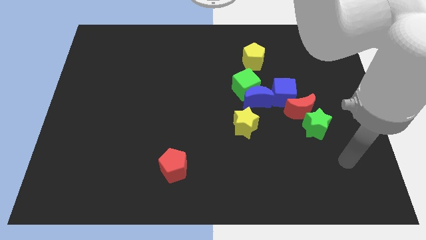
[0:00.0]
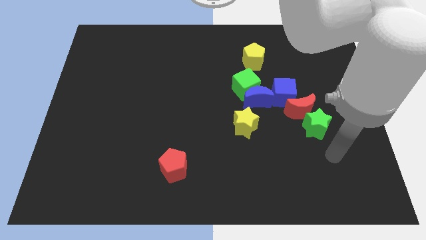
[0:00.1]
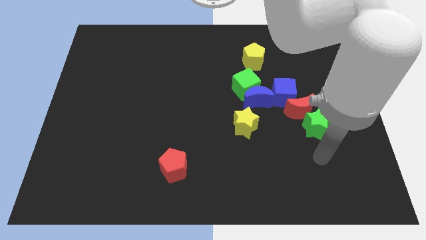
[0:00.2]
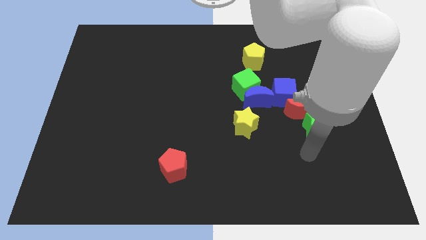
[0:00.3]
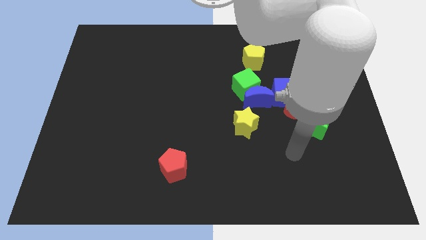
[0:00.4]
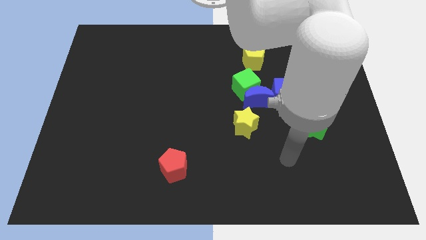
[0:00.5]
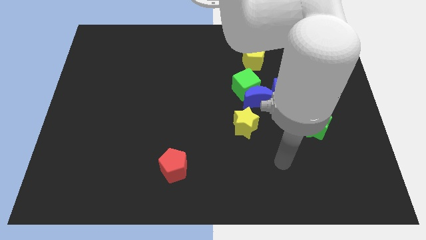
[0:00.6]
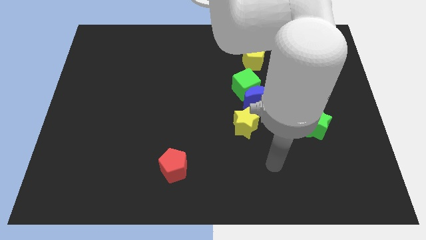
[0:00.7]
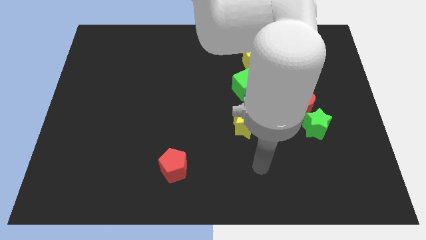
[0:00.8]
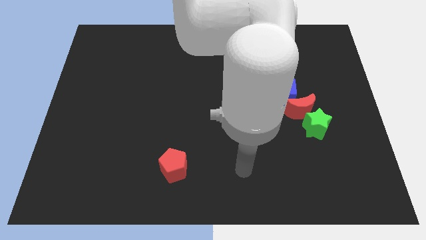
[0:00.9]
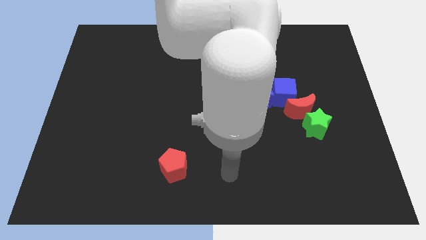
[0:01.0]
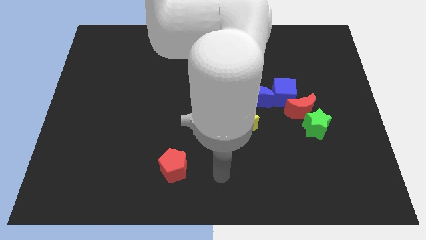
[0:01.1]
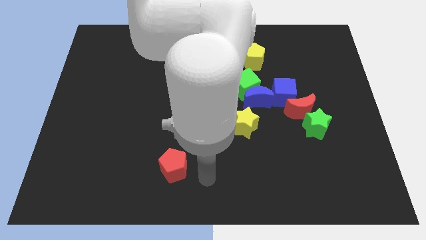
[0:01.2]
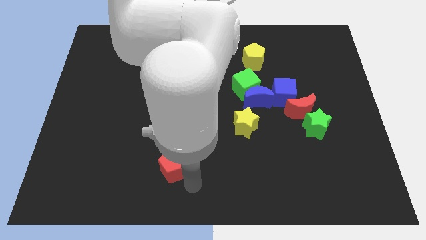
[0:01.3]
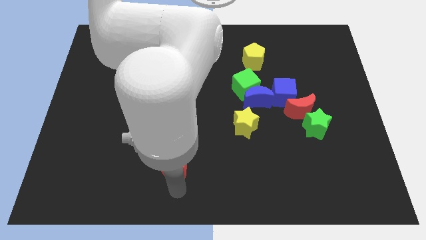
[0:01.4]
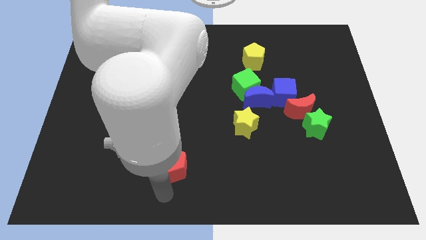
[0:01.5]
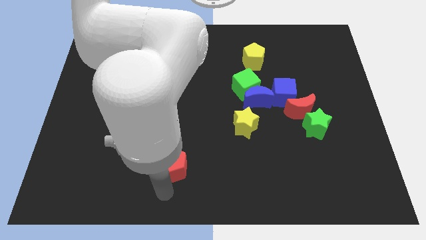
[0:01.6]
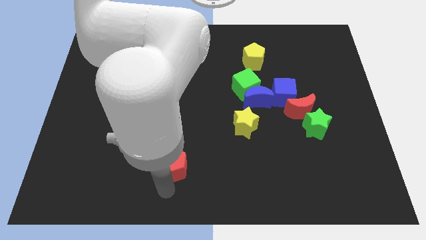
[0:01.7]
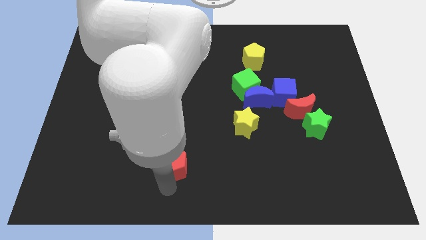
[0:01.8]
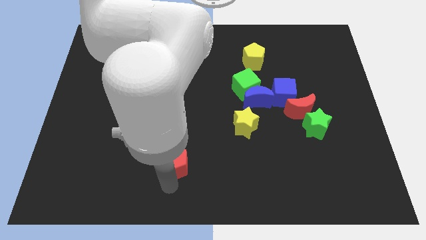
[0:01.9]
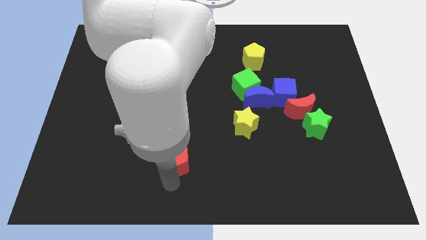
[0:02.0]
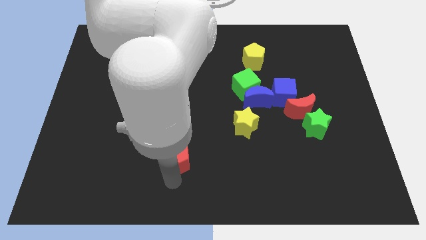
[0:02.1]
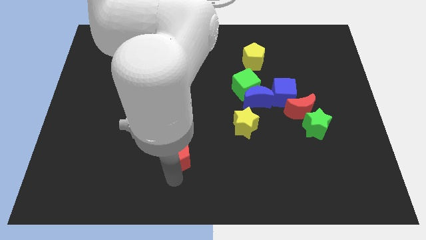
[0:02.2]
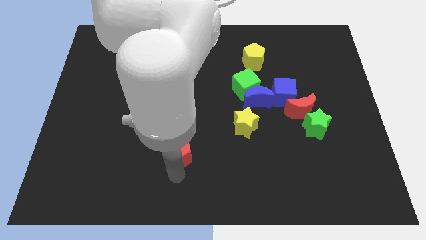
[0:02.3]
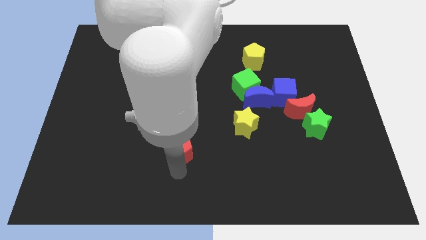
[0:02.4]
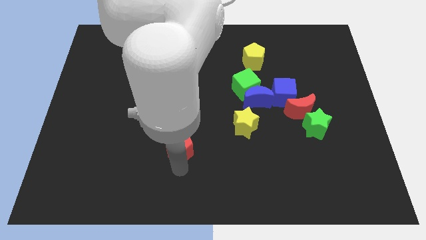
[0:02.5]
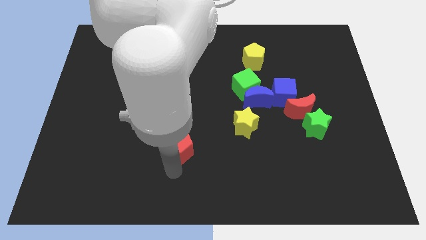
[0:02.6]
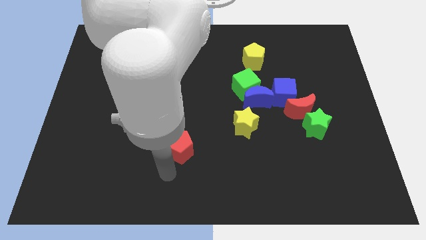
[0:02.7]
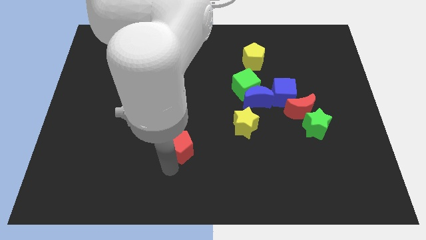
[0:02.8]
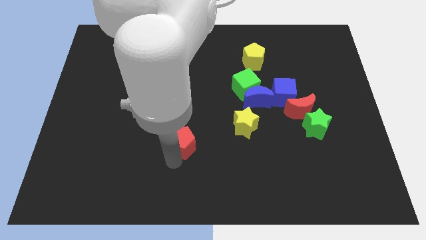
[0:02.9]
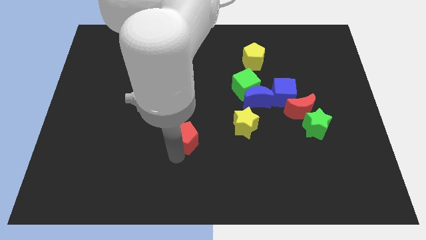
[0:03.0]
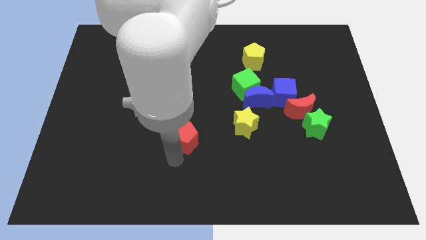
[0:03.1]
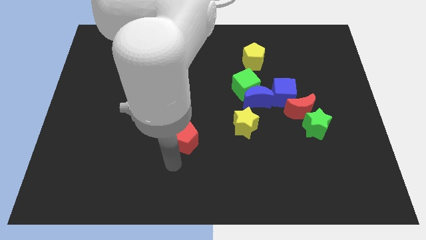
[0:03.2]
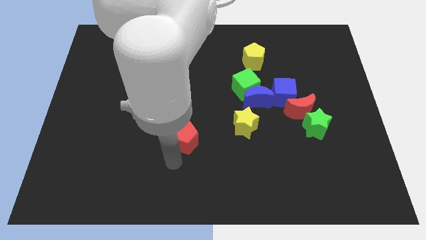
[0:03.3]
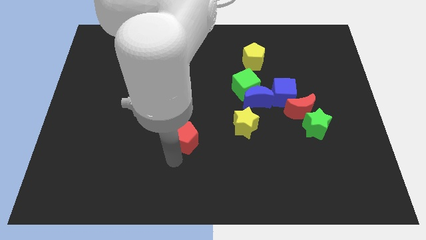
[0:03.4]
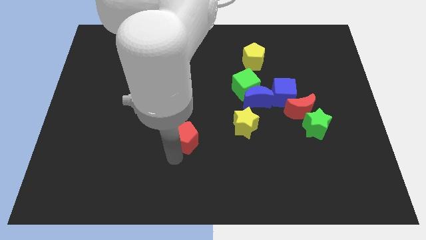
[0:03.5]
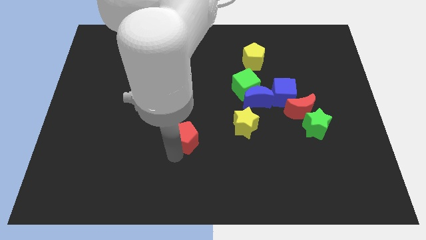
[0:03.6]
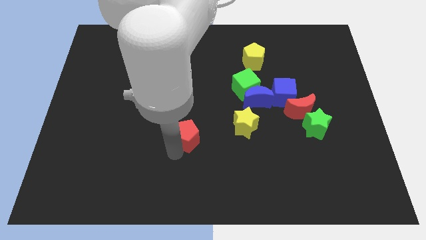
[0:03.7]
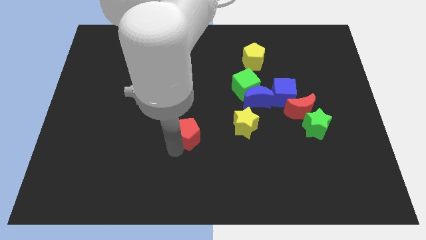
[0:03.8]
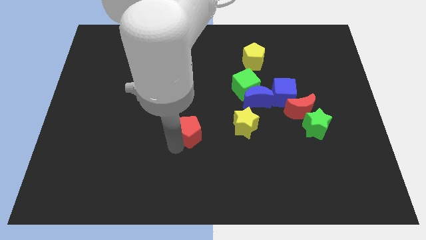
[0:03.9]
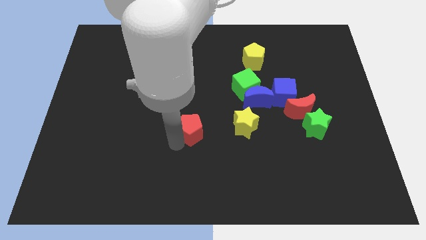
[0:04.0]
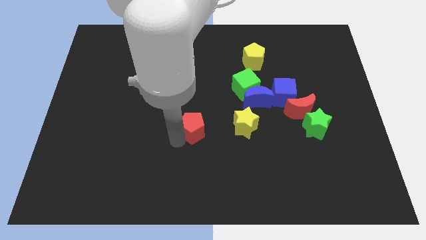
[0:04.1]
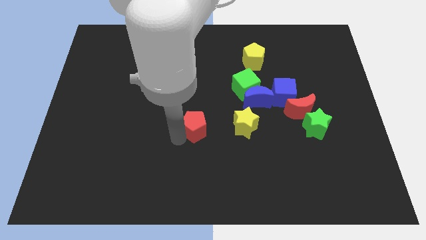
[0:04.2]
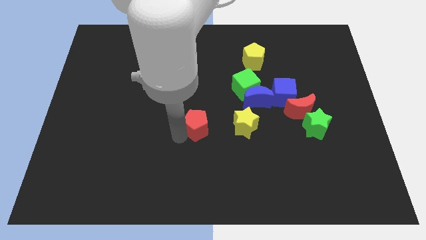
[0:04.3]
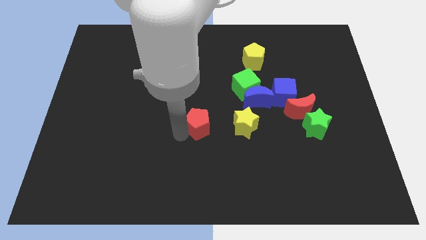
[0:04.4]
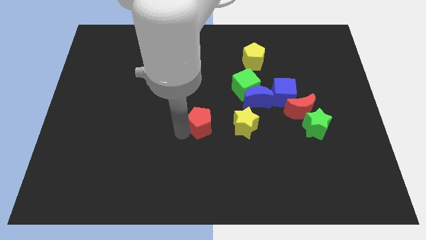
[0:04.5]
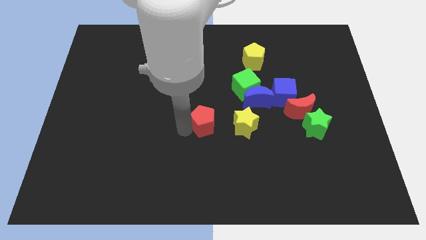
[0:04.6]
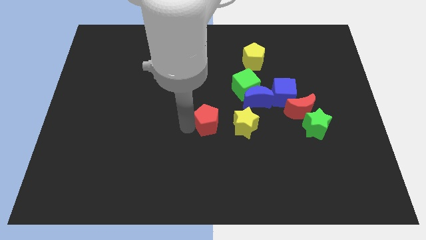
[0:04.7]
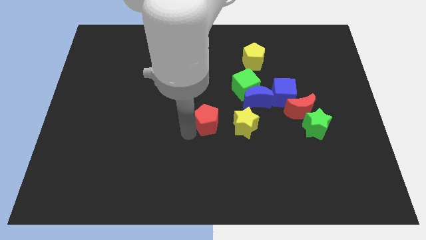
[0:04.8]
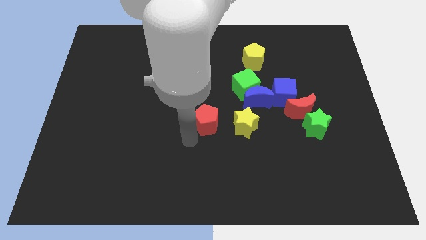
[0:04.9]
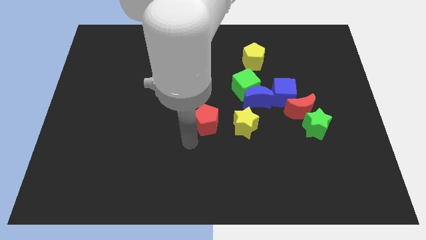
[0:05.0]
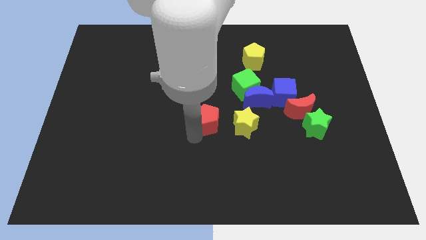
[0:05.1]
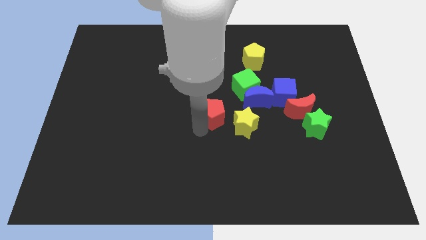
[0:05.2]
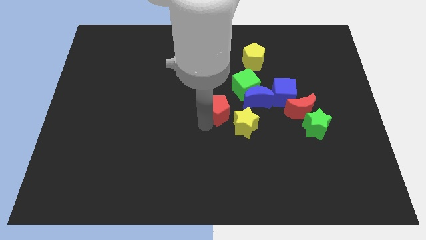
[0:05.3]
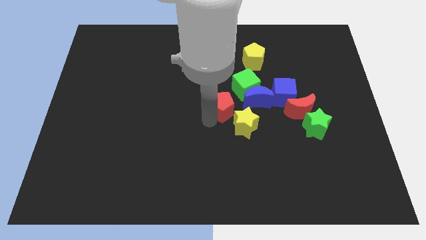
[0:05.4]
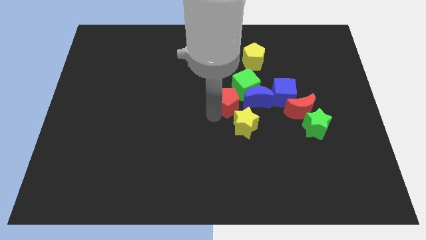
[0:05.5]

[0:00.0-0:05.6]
move the red pentagon to the left side of the blue cube

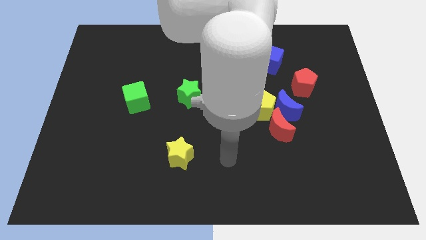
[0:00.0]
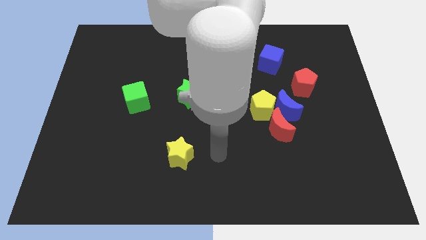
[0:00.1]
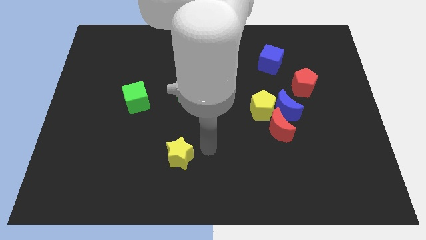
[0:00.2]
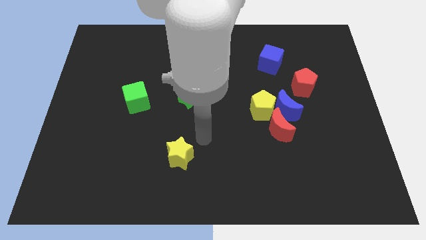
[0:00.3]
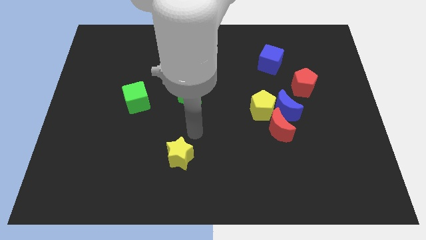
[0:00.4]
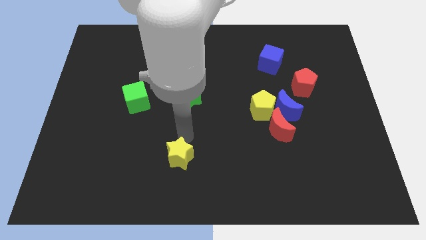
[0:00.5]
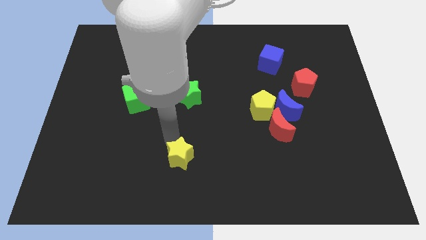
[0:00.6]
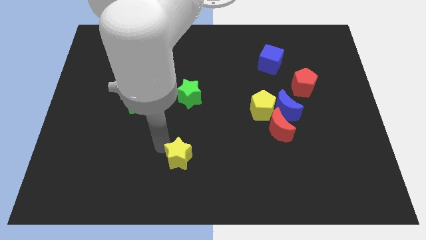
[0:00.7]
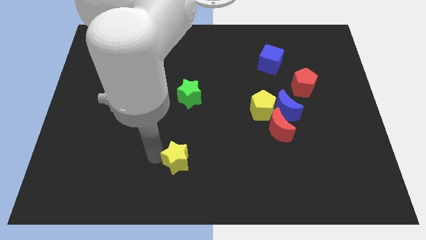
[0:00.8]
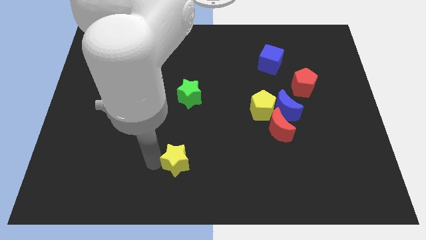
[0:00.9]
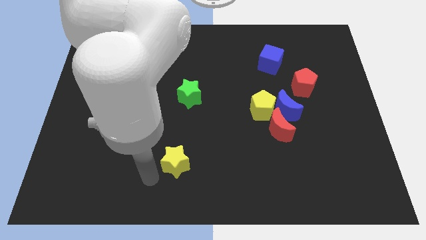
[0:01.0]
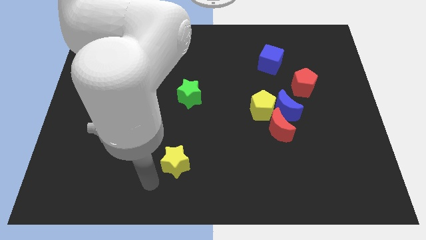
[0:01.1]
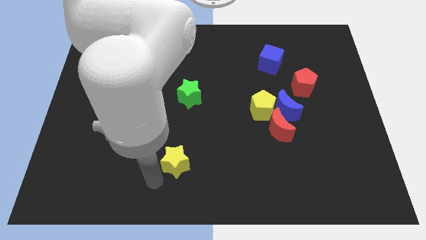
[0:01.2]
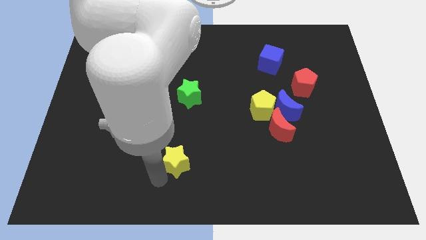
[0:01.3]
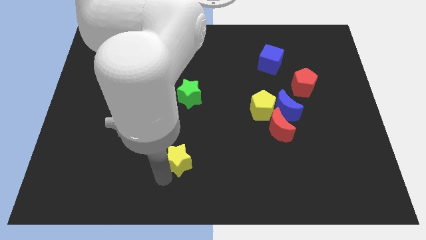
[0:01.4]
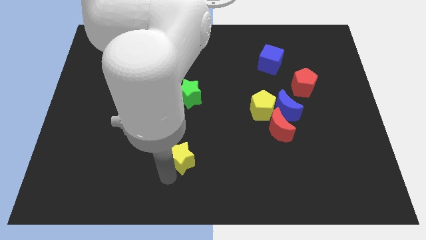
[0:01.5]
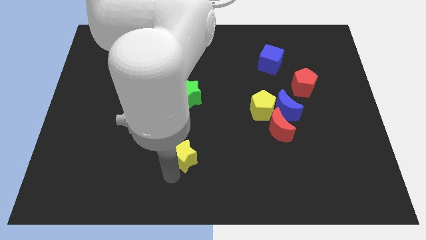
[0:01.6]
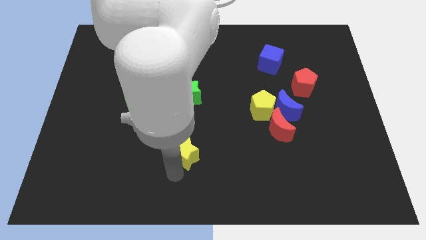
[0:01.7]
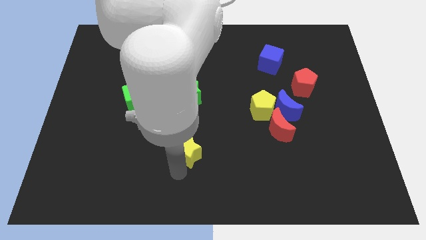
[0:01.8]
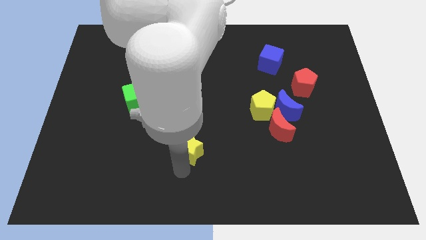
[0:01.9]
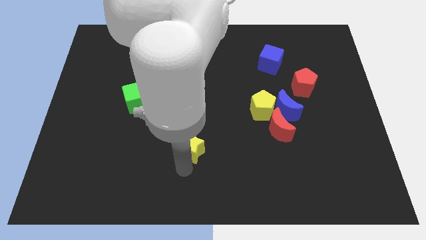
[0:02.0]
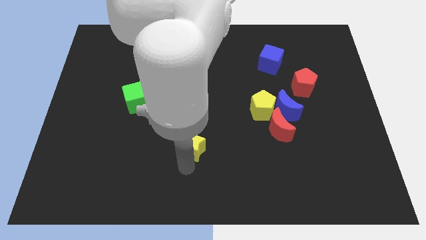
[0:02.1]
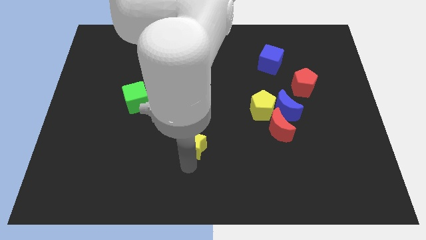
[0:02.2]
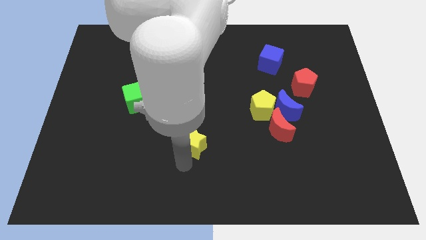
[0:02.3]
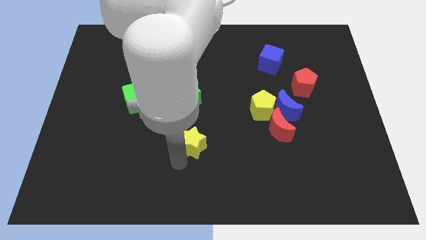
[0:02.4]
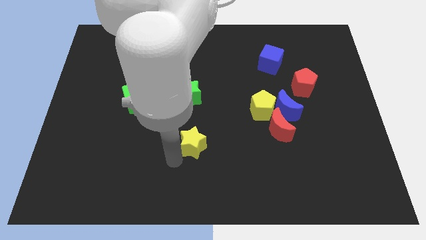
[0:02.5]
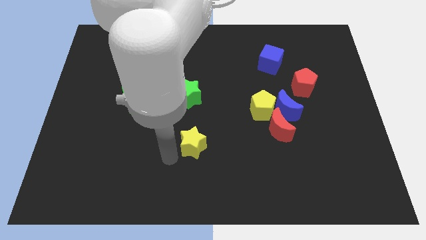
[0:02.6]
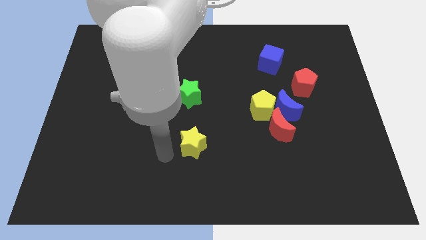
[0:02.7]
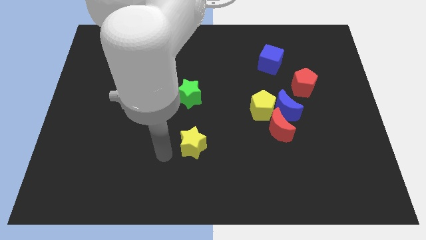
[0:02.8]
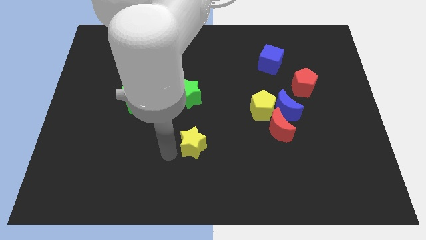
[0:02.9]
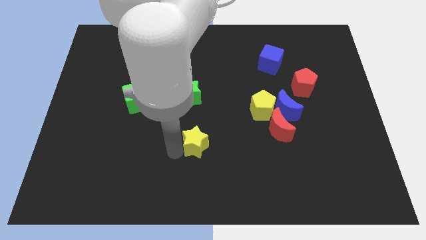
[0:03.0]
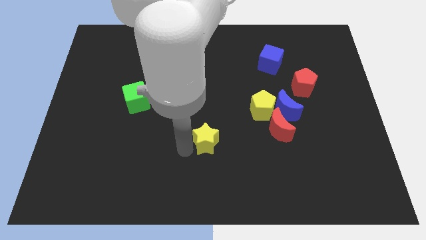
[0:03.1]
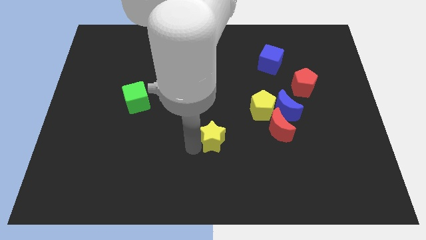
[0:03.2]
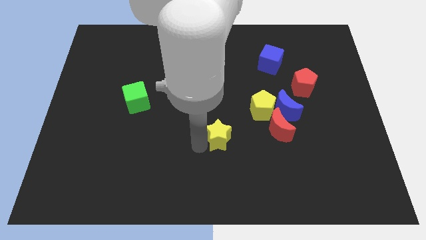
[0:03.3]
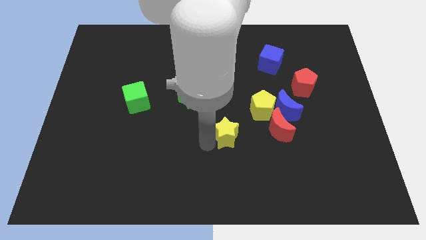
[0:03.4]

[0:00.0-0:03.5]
slide the yellow star to the bottom left of the yellow pentagon
